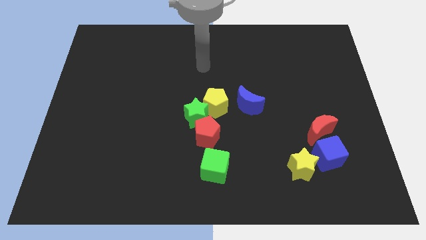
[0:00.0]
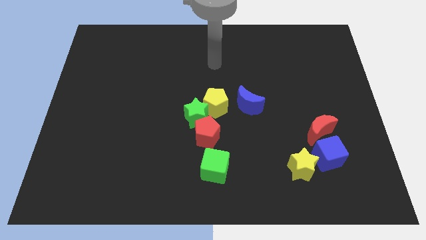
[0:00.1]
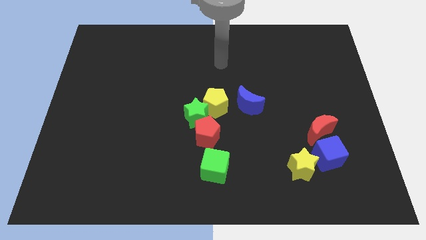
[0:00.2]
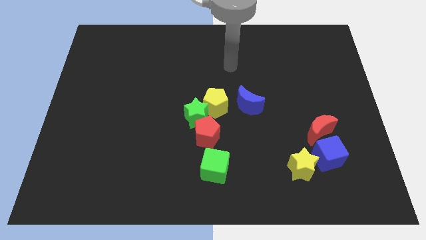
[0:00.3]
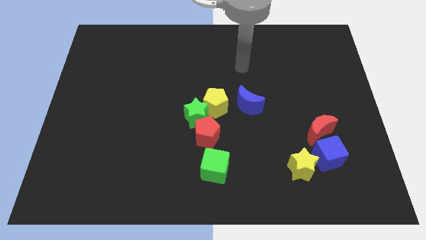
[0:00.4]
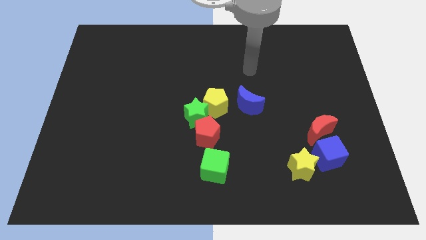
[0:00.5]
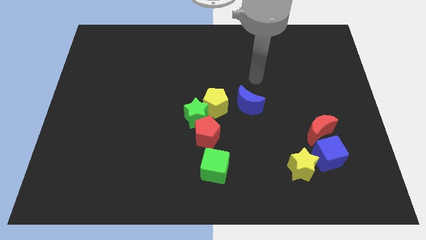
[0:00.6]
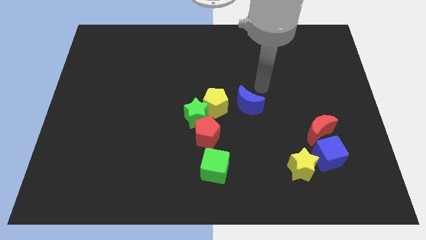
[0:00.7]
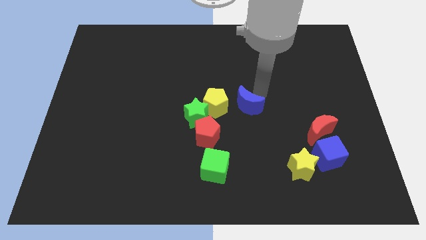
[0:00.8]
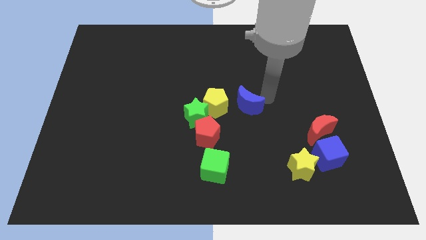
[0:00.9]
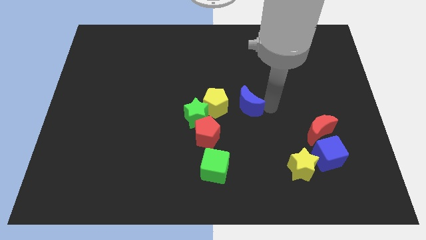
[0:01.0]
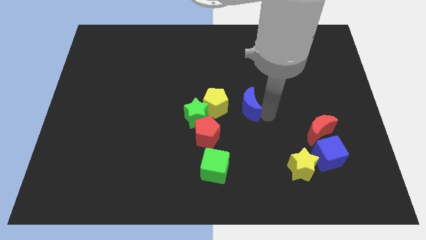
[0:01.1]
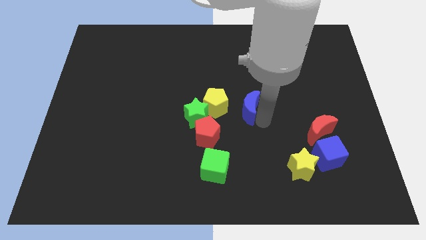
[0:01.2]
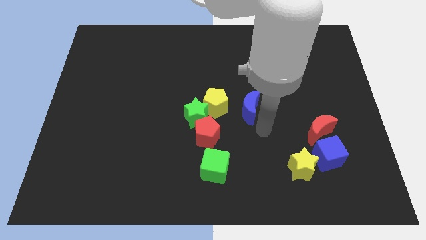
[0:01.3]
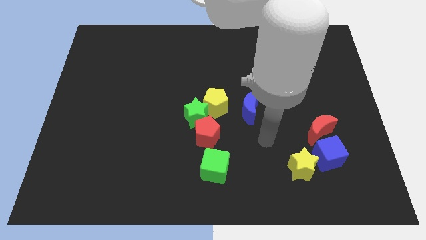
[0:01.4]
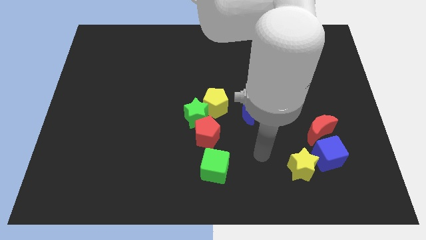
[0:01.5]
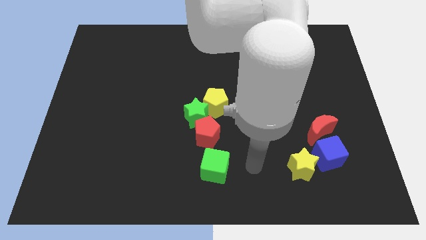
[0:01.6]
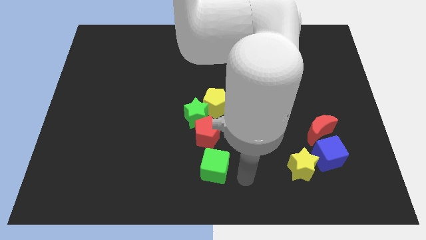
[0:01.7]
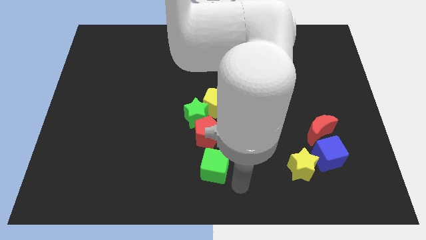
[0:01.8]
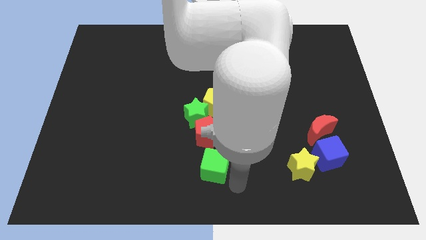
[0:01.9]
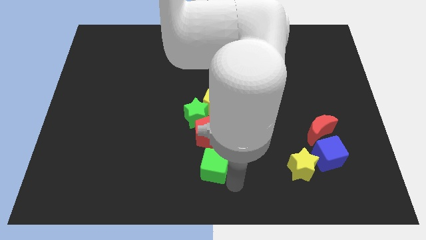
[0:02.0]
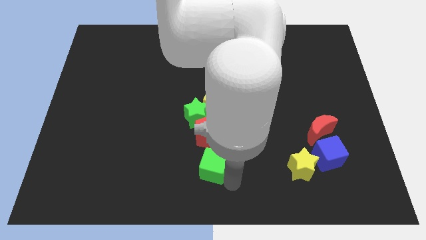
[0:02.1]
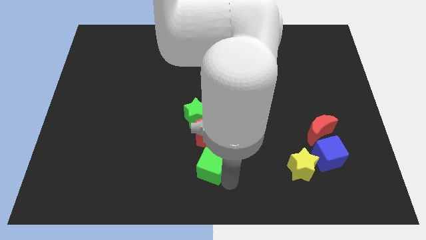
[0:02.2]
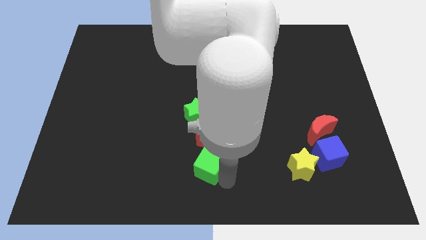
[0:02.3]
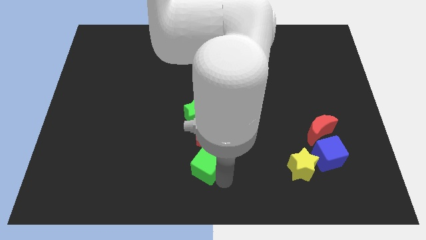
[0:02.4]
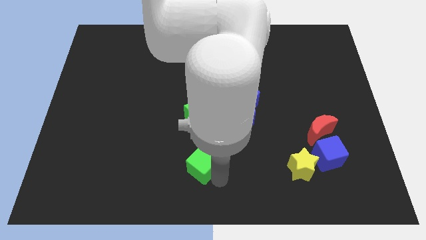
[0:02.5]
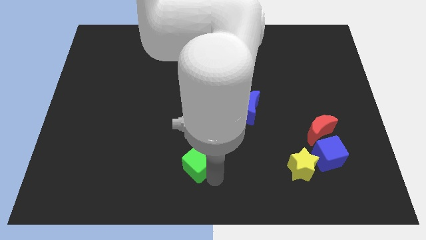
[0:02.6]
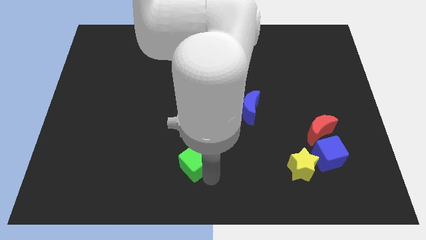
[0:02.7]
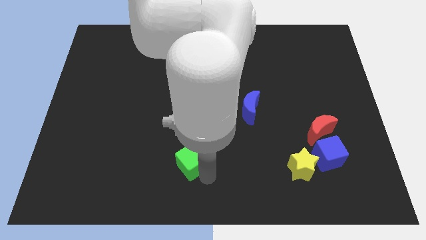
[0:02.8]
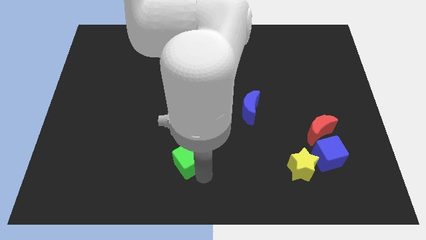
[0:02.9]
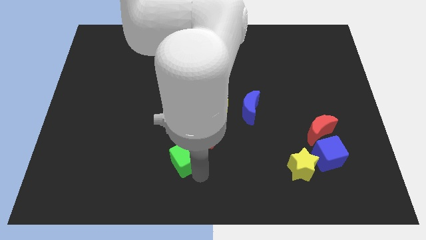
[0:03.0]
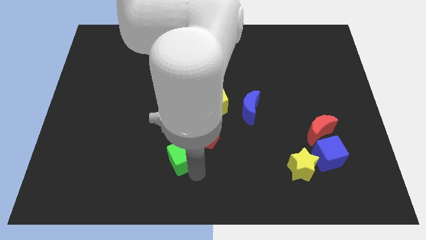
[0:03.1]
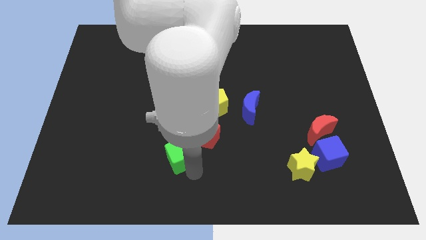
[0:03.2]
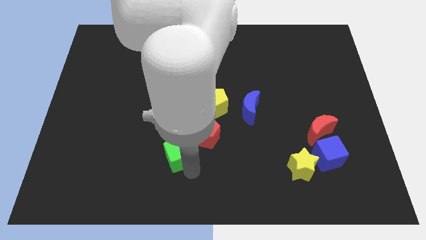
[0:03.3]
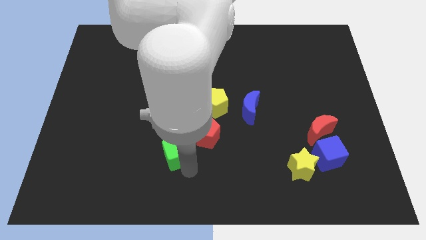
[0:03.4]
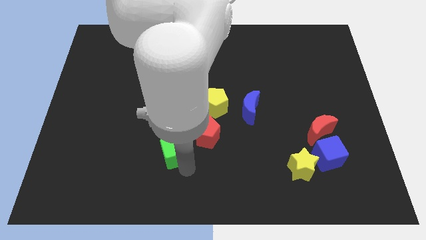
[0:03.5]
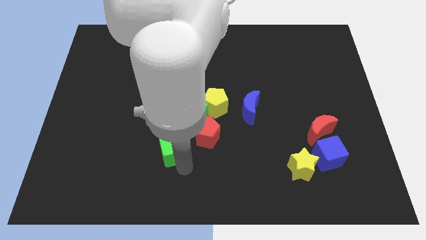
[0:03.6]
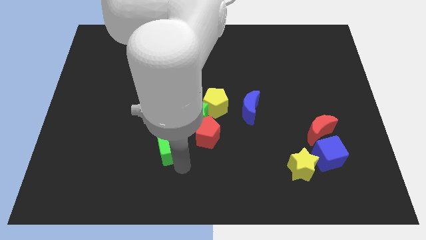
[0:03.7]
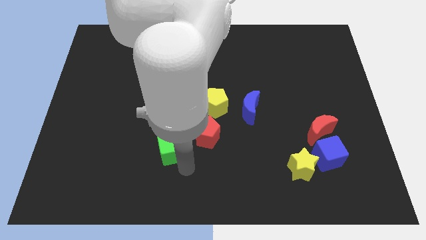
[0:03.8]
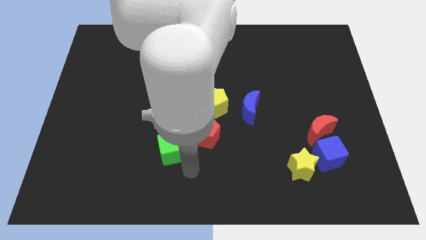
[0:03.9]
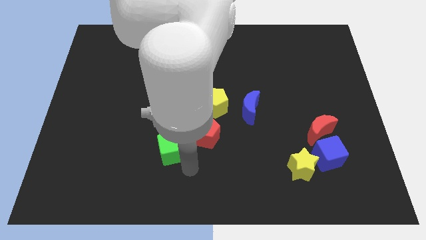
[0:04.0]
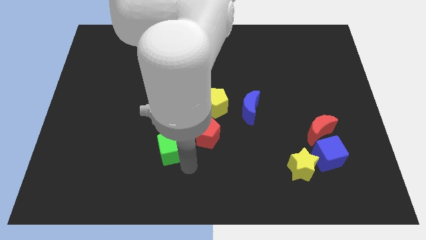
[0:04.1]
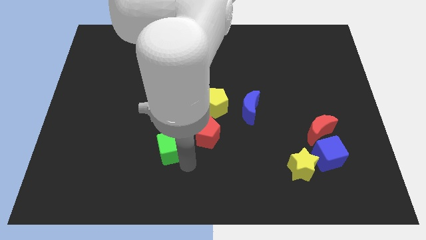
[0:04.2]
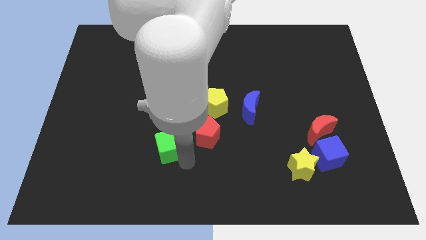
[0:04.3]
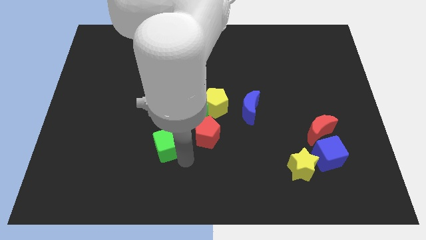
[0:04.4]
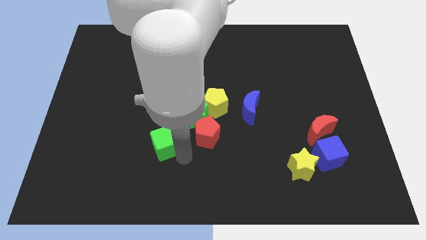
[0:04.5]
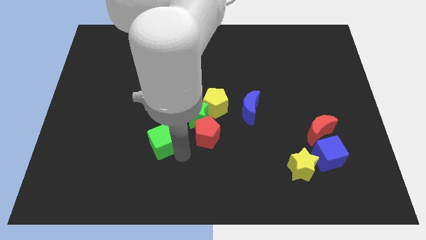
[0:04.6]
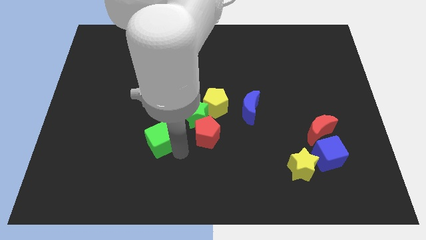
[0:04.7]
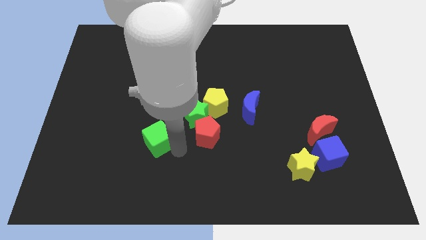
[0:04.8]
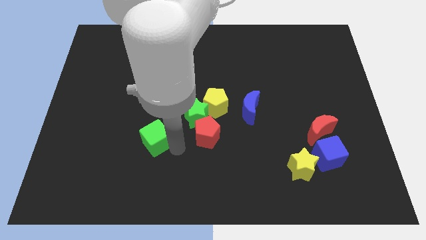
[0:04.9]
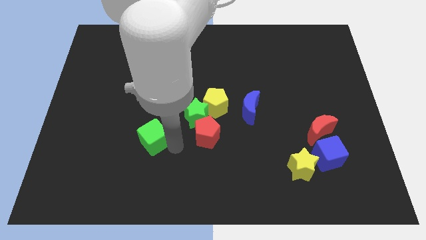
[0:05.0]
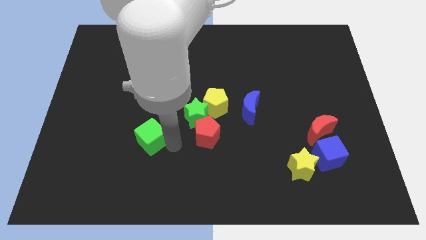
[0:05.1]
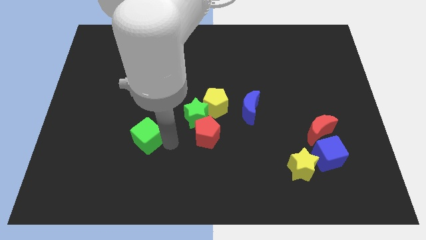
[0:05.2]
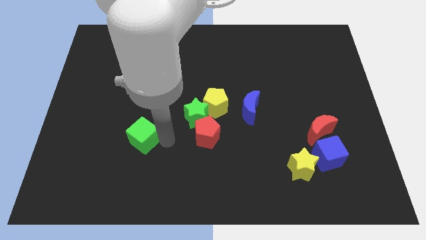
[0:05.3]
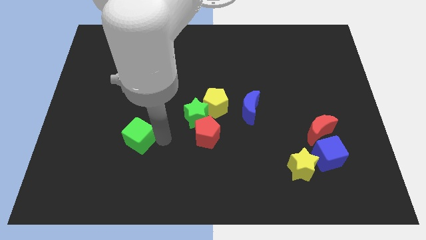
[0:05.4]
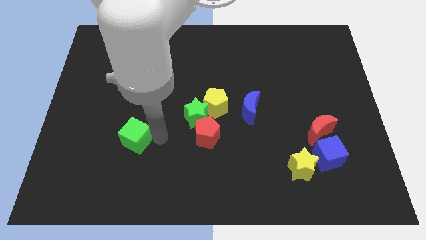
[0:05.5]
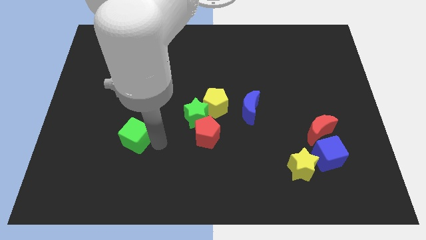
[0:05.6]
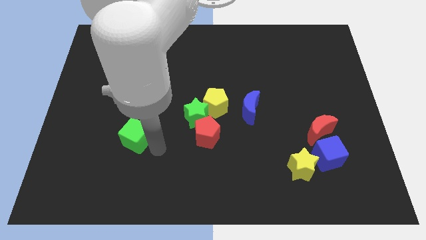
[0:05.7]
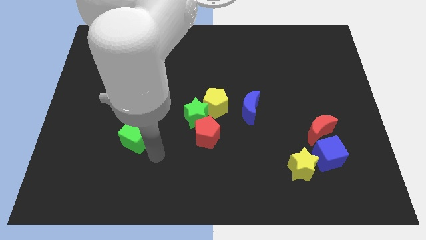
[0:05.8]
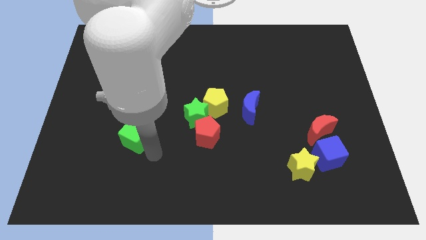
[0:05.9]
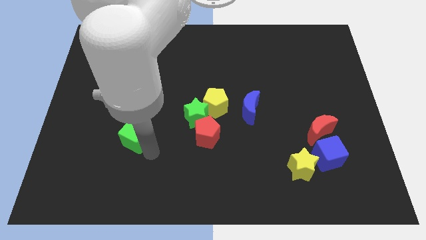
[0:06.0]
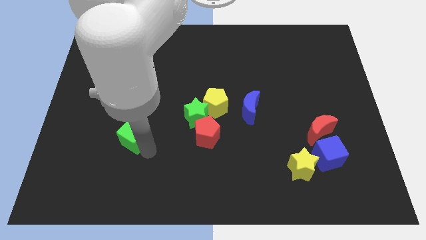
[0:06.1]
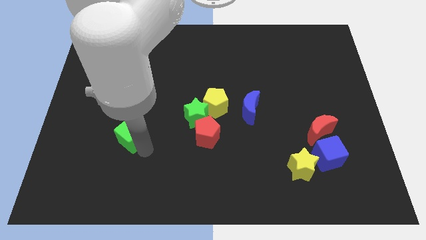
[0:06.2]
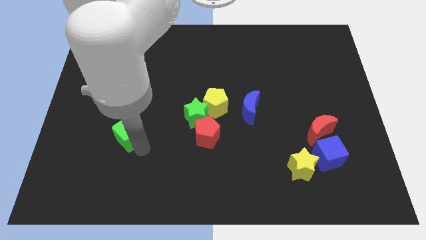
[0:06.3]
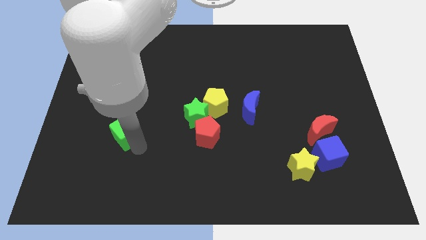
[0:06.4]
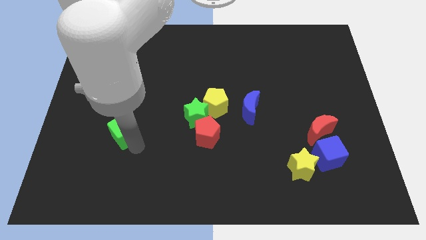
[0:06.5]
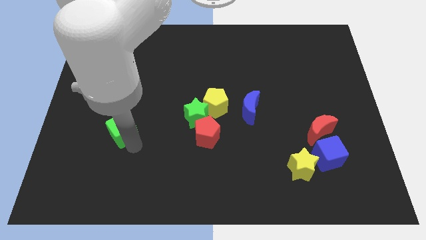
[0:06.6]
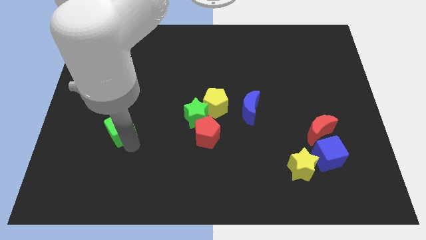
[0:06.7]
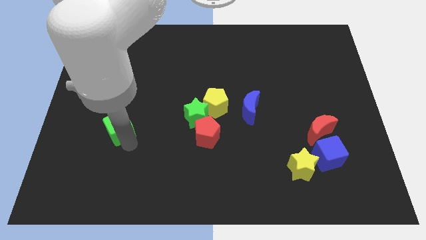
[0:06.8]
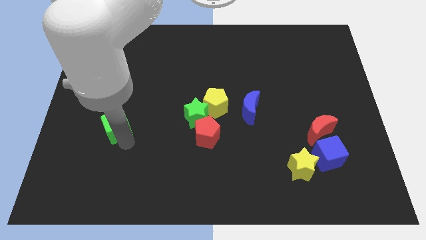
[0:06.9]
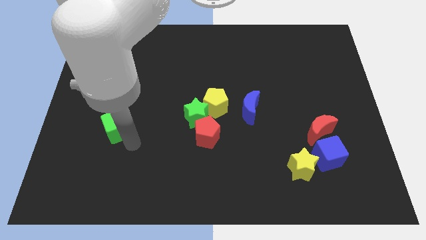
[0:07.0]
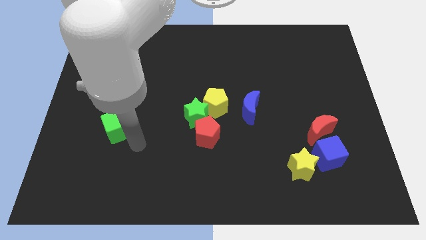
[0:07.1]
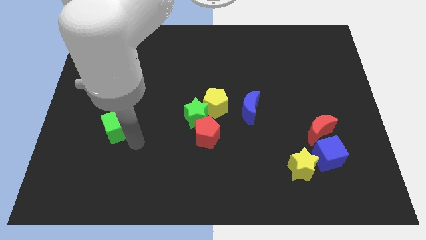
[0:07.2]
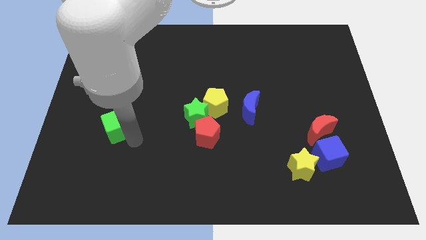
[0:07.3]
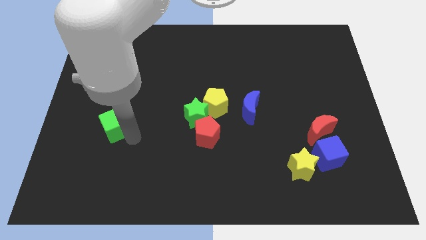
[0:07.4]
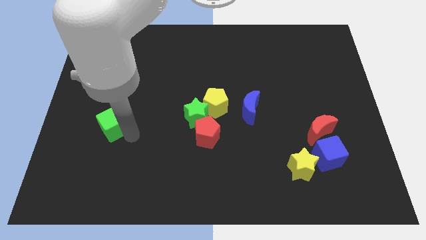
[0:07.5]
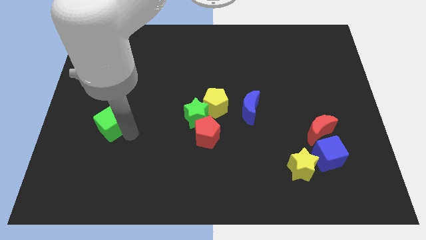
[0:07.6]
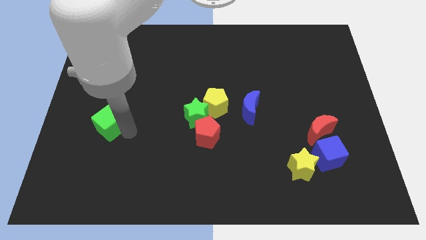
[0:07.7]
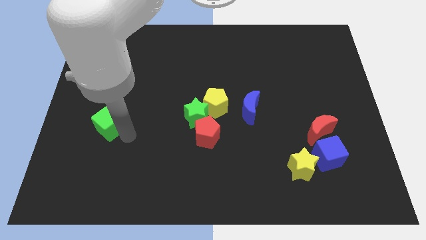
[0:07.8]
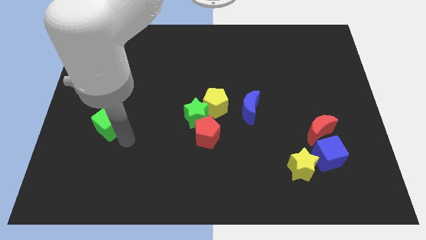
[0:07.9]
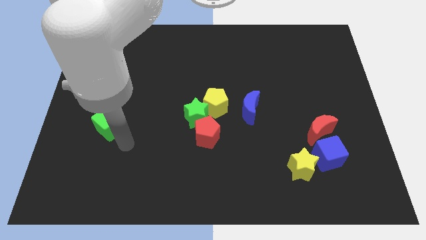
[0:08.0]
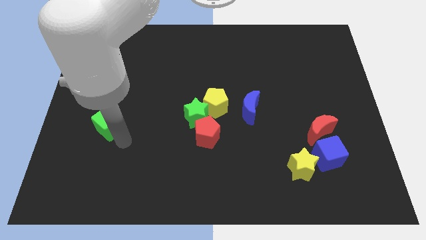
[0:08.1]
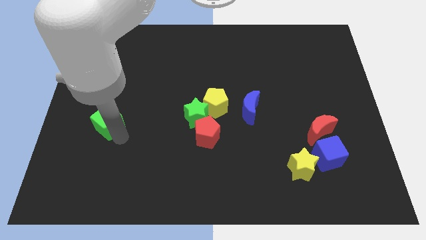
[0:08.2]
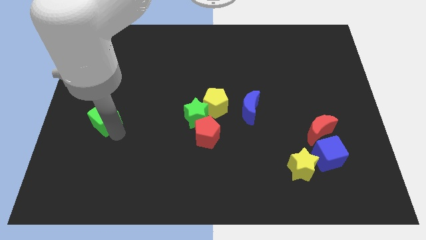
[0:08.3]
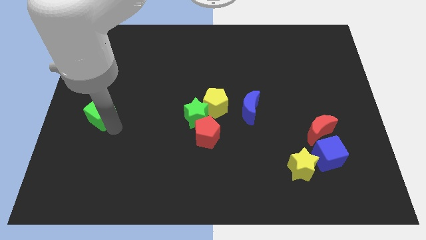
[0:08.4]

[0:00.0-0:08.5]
put the green cube to the center left
